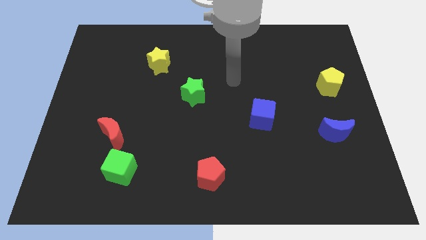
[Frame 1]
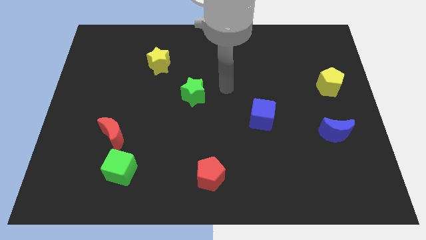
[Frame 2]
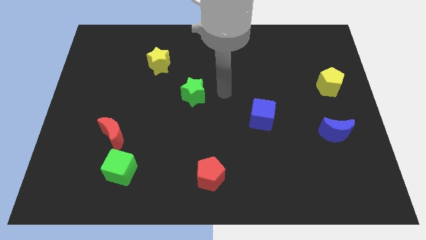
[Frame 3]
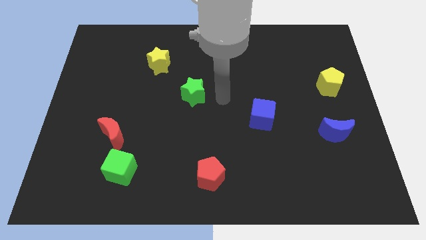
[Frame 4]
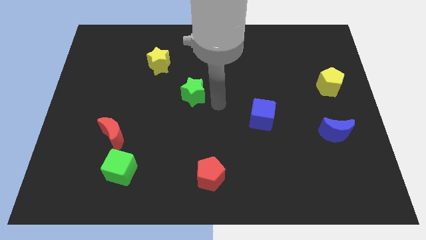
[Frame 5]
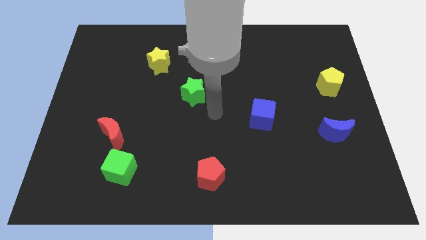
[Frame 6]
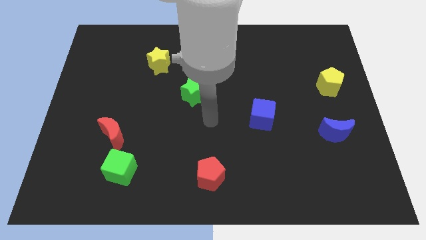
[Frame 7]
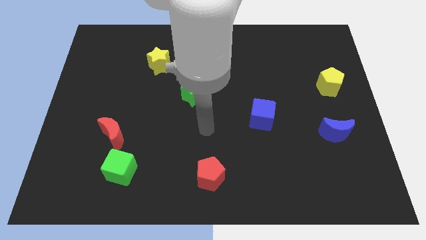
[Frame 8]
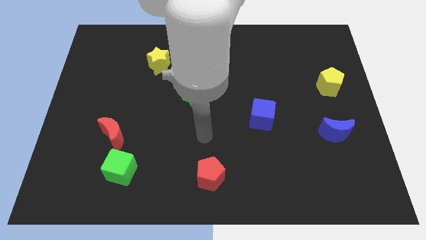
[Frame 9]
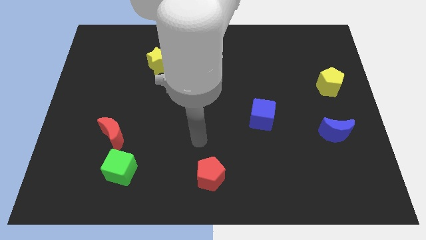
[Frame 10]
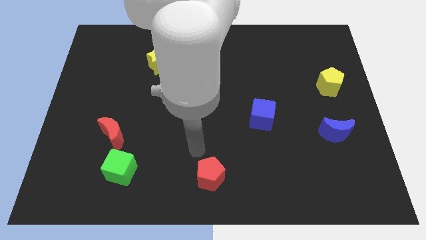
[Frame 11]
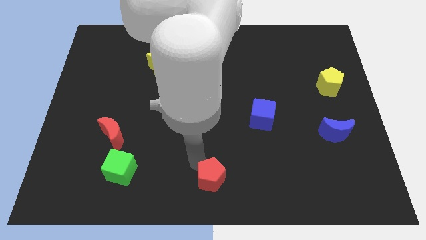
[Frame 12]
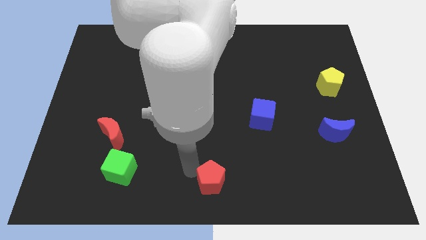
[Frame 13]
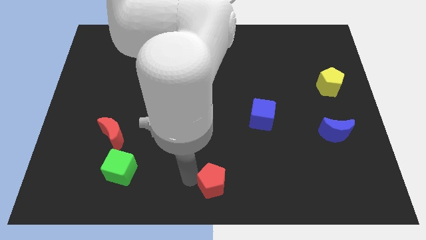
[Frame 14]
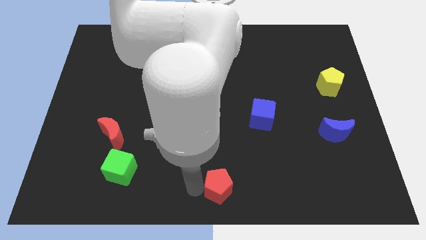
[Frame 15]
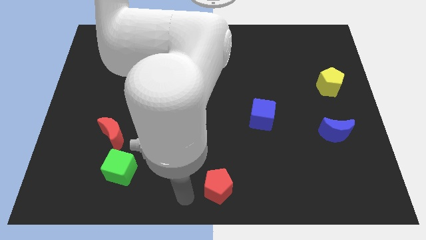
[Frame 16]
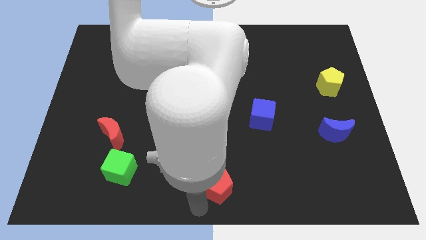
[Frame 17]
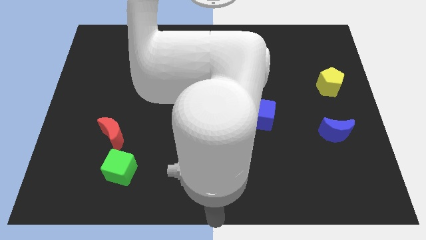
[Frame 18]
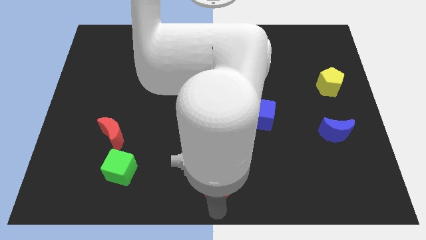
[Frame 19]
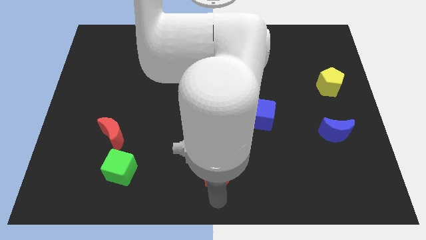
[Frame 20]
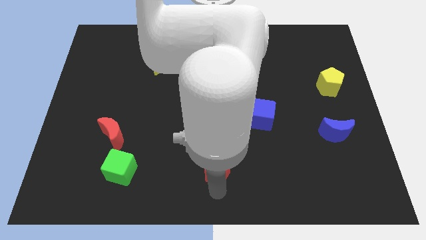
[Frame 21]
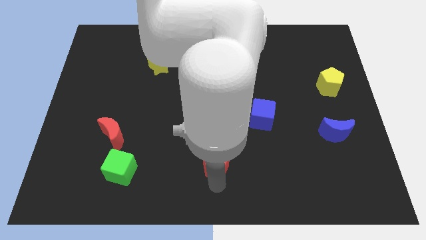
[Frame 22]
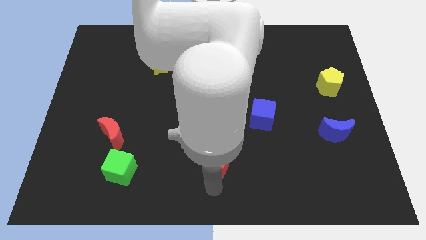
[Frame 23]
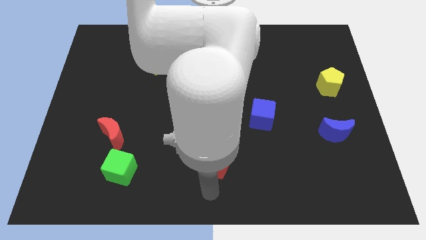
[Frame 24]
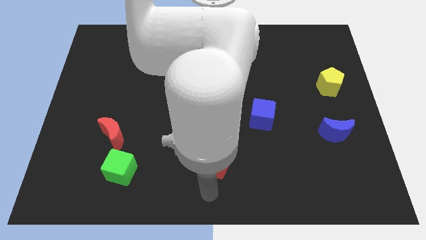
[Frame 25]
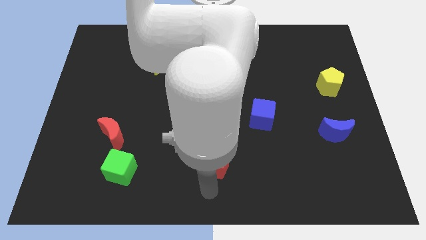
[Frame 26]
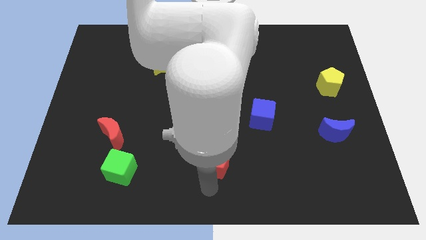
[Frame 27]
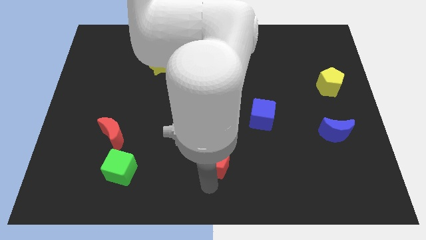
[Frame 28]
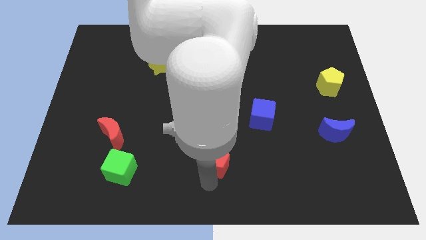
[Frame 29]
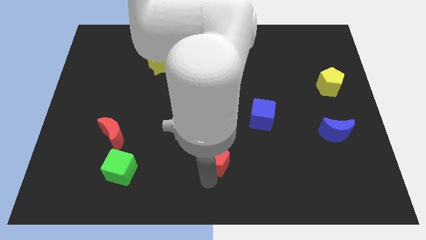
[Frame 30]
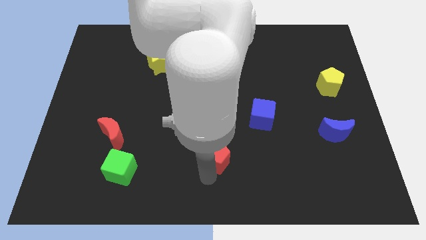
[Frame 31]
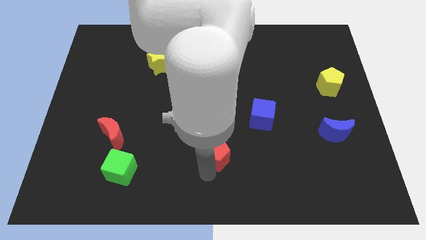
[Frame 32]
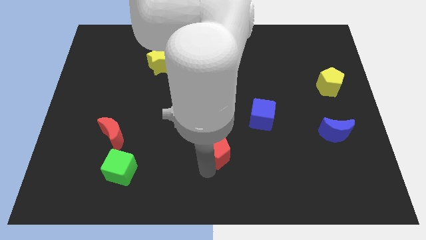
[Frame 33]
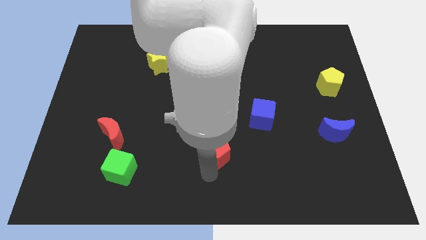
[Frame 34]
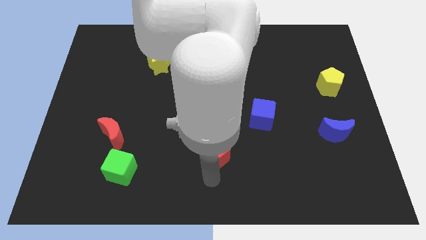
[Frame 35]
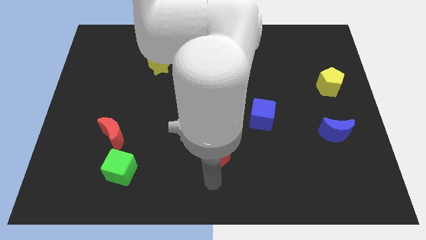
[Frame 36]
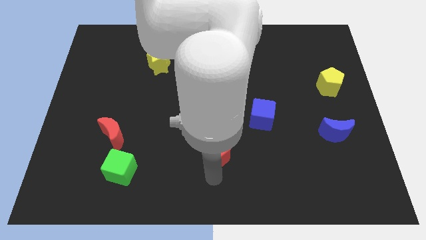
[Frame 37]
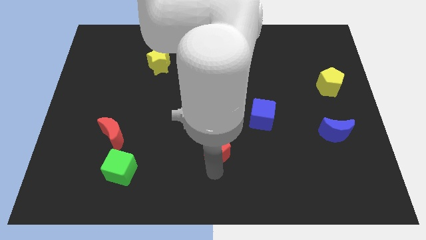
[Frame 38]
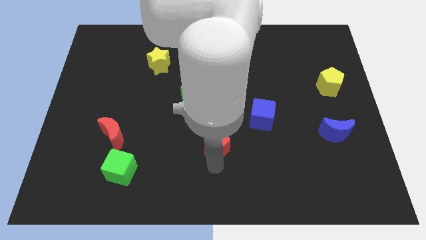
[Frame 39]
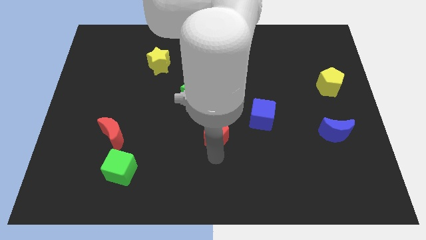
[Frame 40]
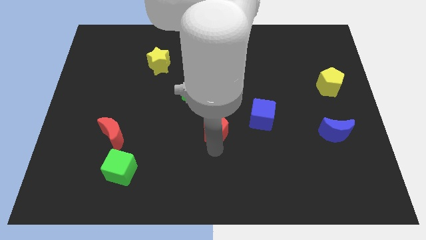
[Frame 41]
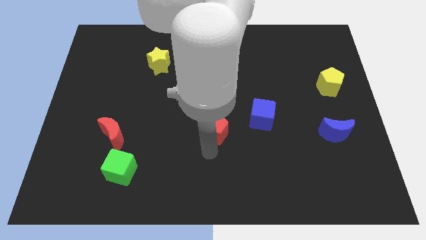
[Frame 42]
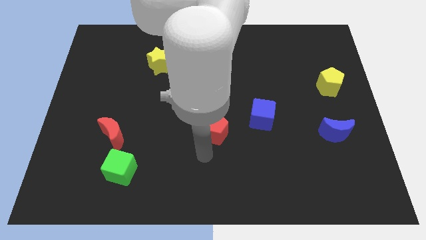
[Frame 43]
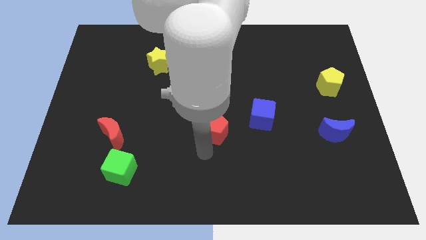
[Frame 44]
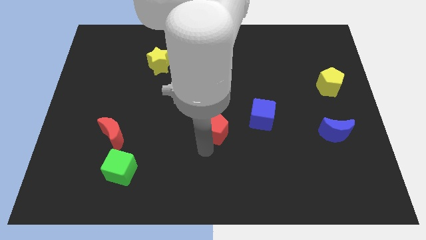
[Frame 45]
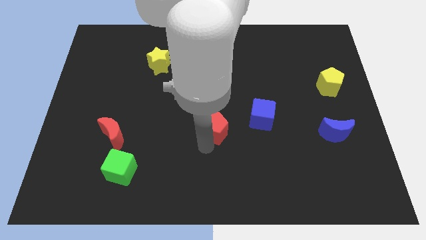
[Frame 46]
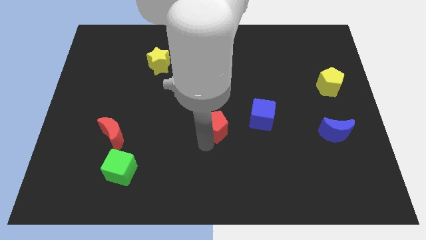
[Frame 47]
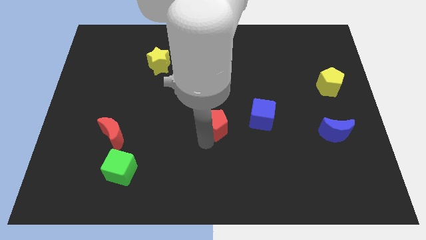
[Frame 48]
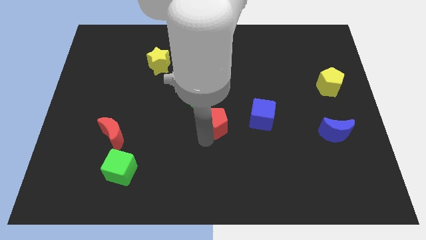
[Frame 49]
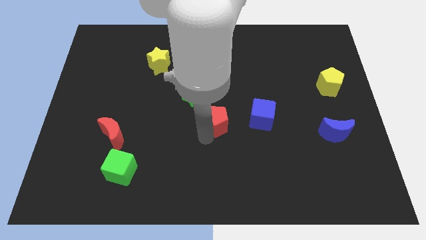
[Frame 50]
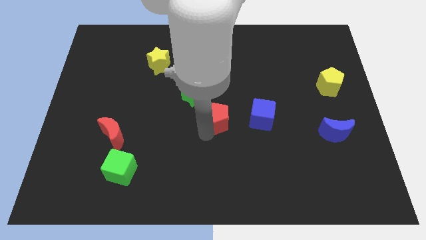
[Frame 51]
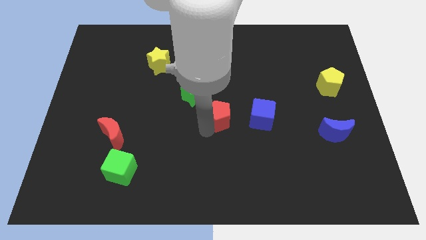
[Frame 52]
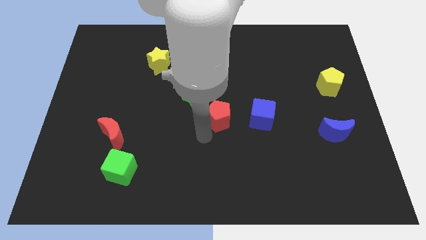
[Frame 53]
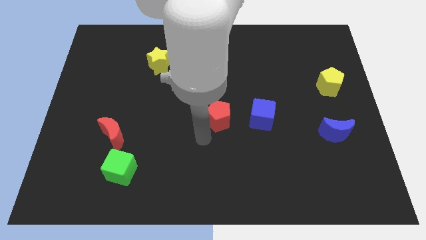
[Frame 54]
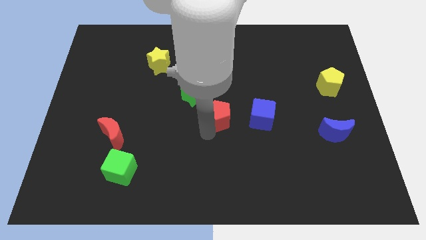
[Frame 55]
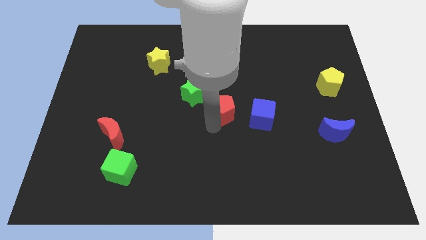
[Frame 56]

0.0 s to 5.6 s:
move the red pentagon to the right of the green star

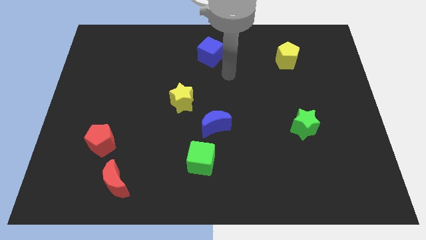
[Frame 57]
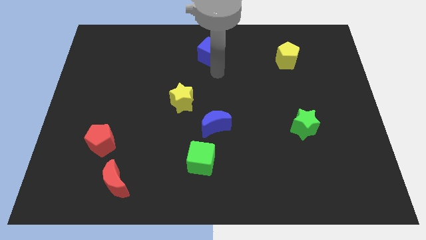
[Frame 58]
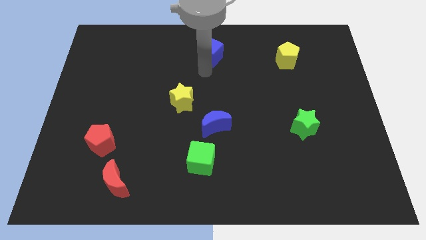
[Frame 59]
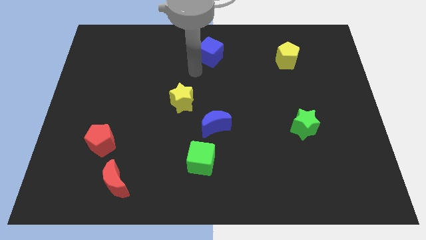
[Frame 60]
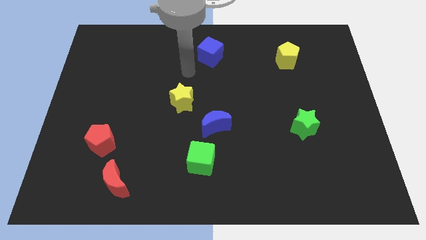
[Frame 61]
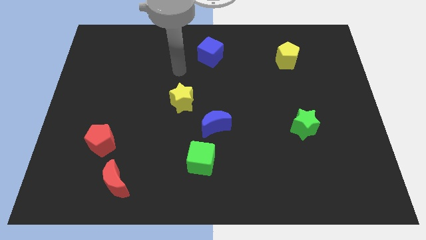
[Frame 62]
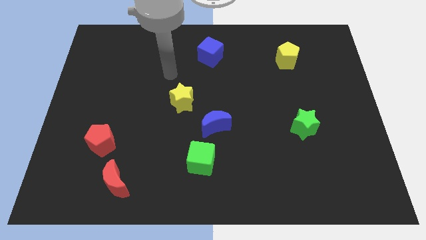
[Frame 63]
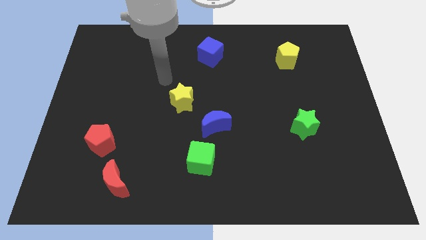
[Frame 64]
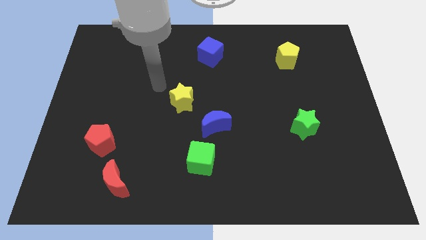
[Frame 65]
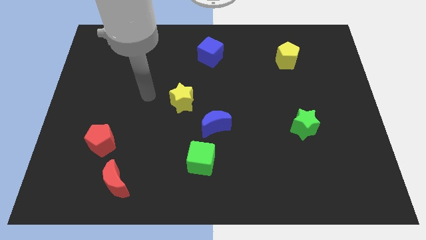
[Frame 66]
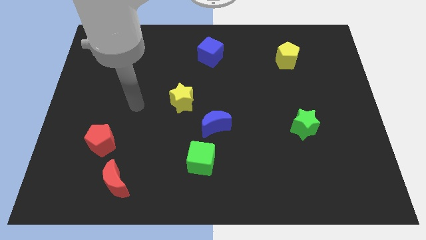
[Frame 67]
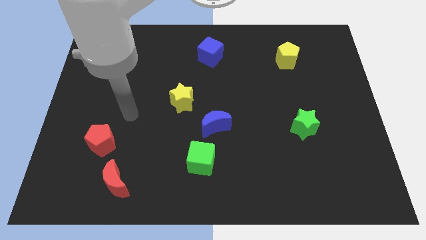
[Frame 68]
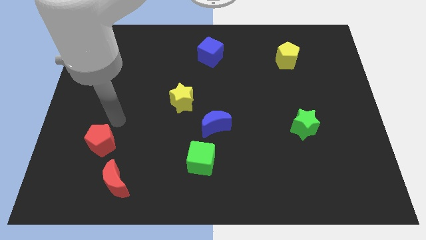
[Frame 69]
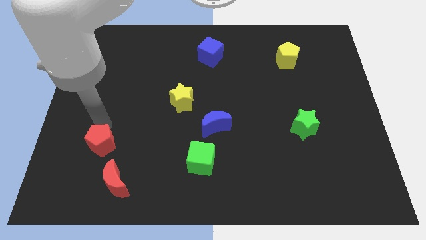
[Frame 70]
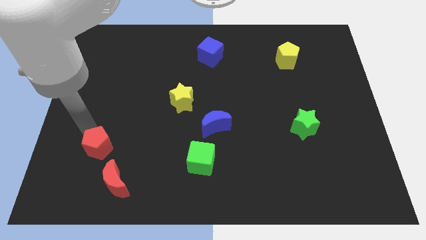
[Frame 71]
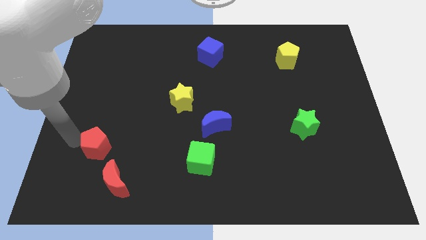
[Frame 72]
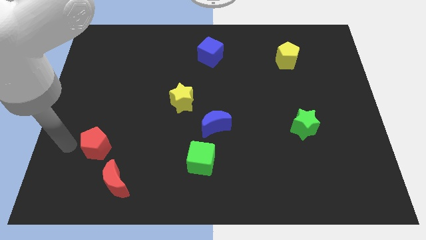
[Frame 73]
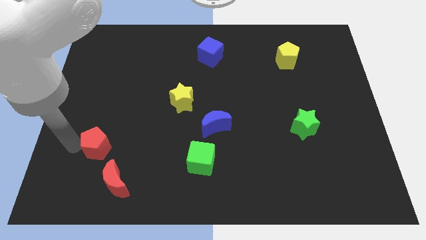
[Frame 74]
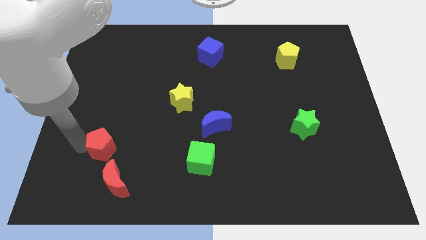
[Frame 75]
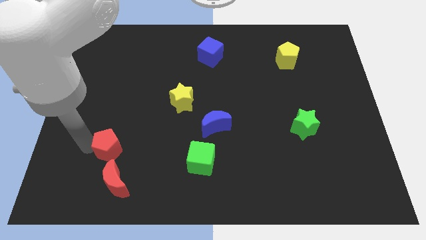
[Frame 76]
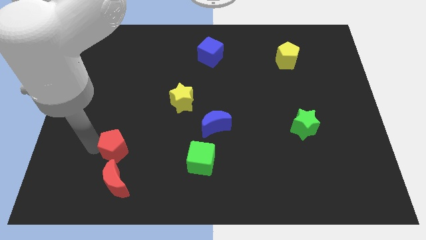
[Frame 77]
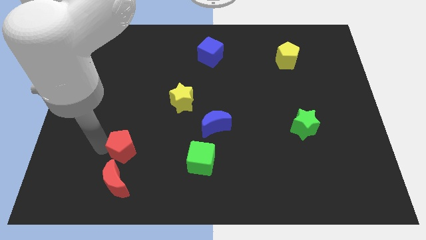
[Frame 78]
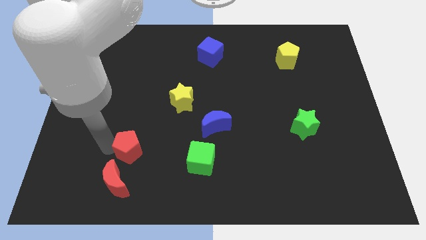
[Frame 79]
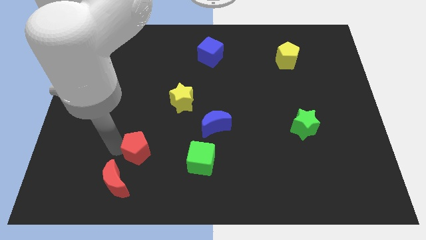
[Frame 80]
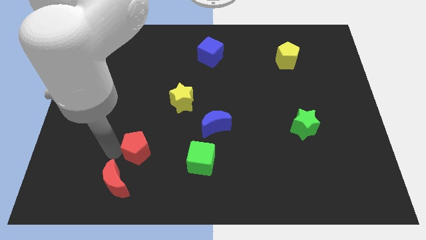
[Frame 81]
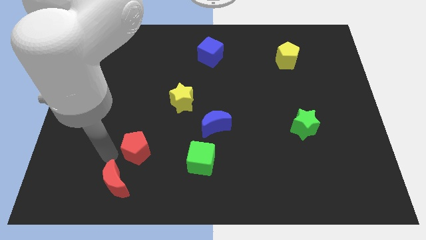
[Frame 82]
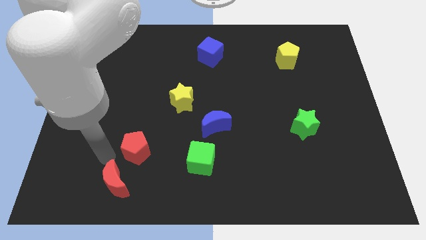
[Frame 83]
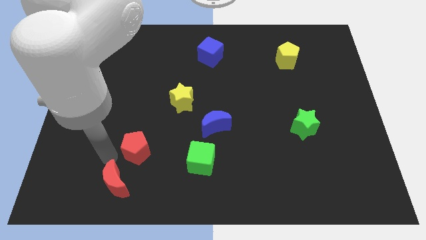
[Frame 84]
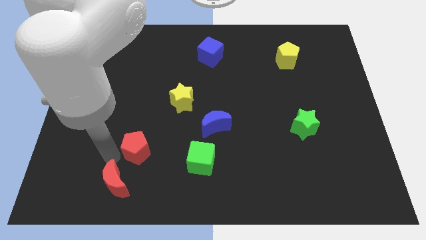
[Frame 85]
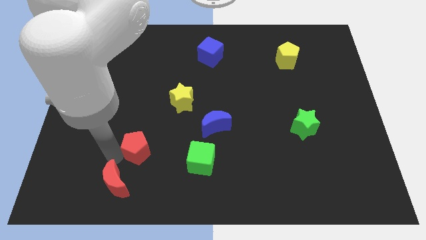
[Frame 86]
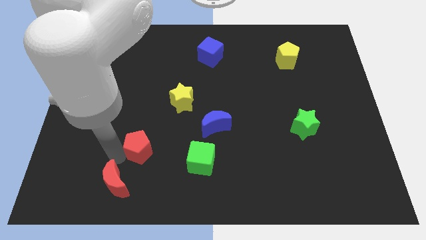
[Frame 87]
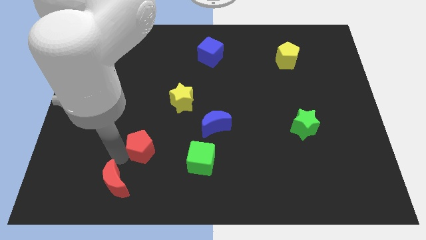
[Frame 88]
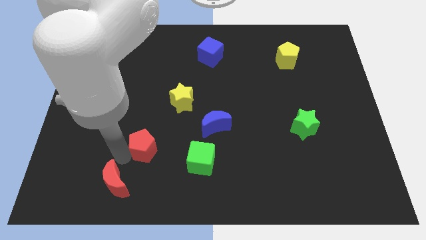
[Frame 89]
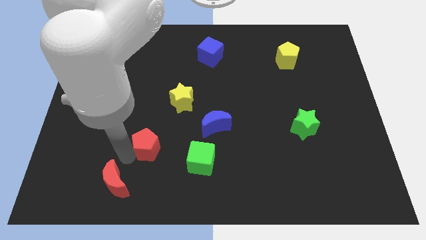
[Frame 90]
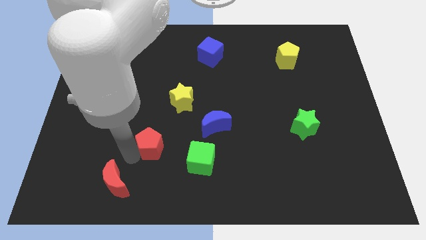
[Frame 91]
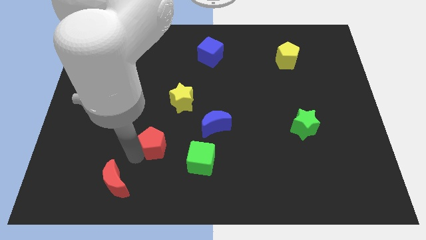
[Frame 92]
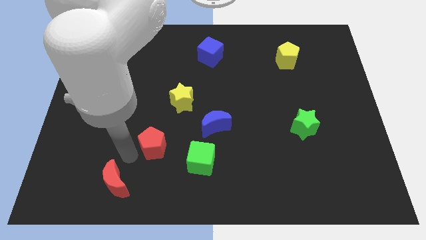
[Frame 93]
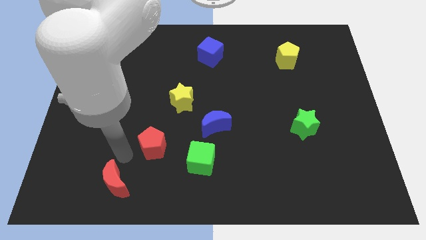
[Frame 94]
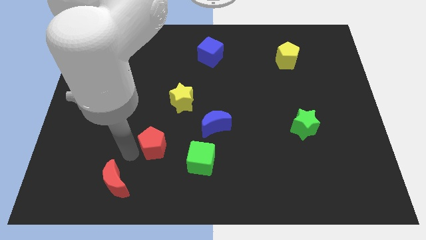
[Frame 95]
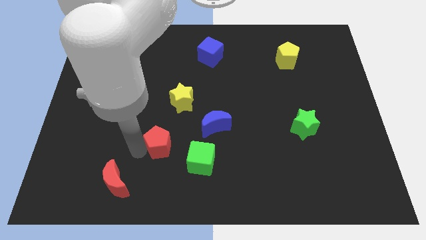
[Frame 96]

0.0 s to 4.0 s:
push the red pentagon below the yellow star
